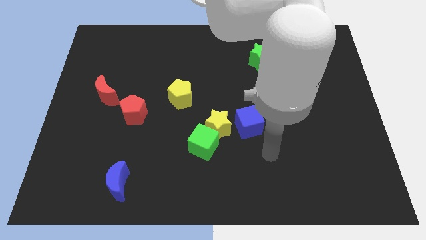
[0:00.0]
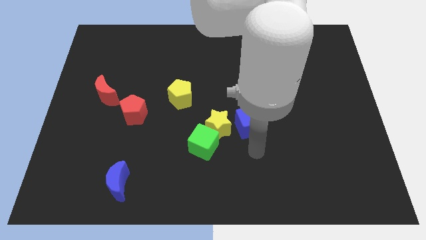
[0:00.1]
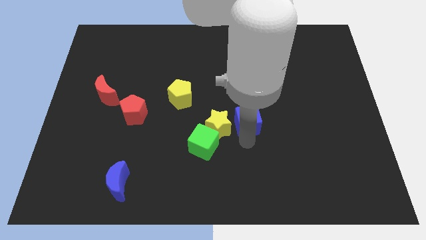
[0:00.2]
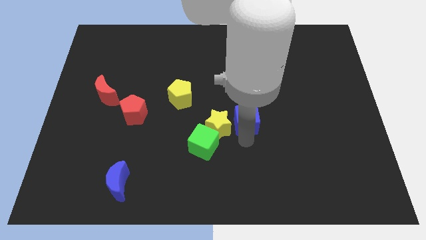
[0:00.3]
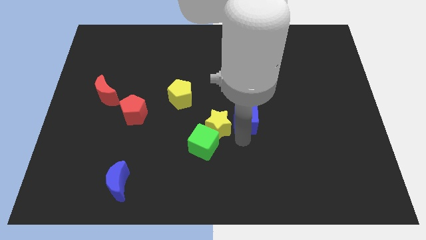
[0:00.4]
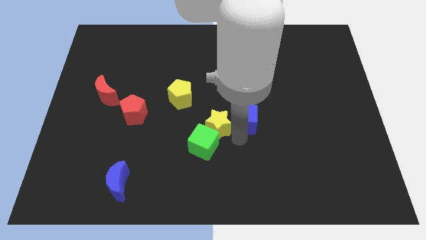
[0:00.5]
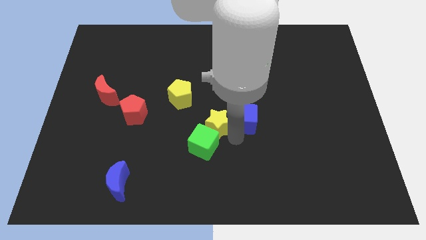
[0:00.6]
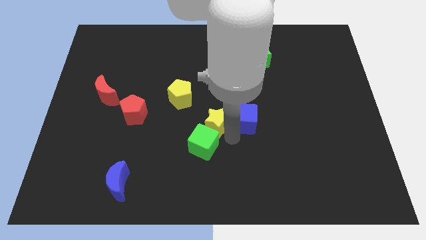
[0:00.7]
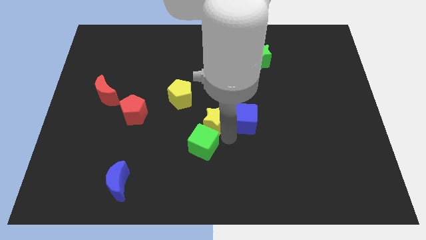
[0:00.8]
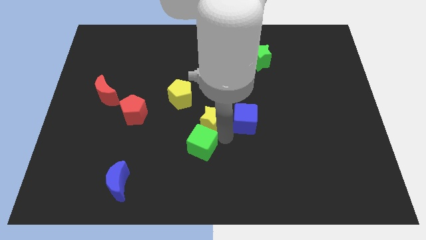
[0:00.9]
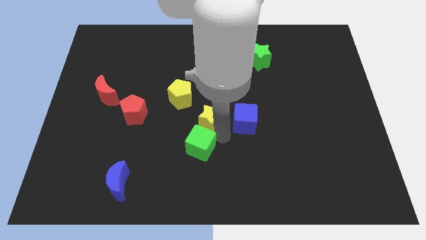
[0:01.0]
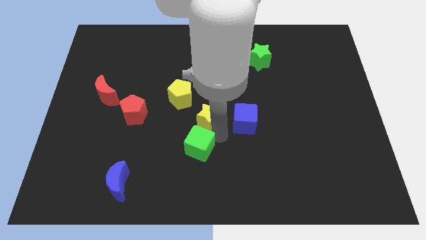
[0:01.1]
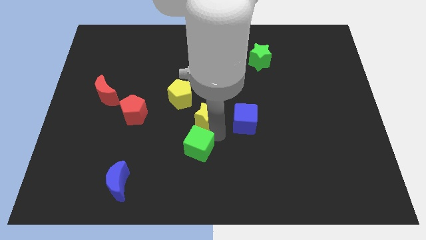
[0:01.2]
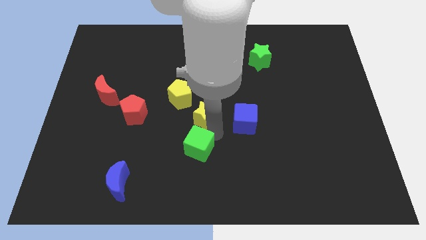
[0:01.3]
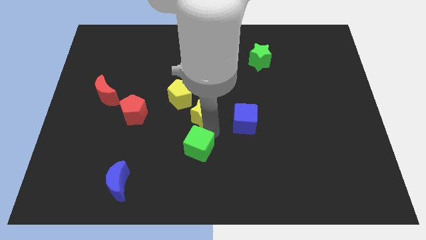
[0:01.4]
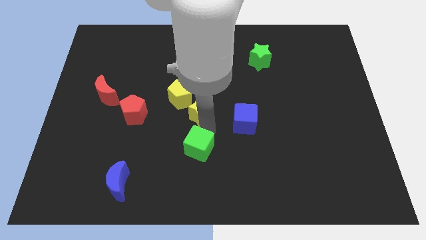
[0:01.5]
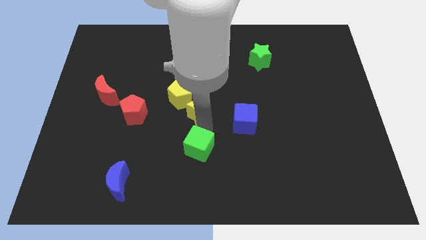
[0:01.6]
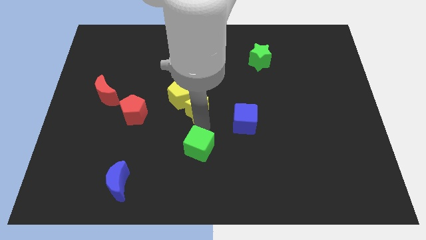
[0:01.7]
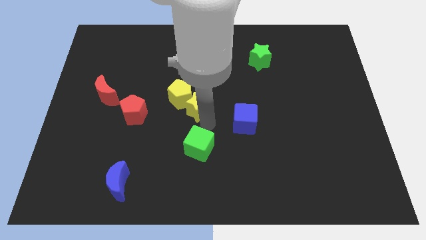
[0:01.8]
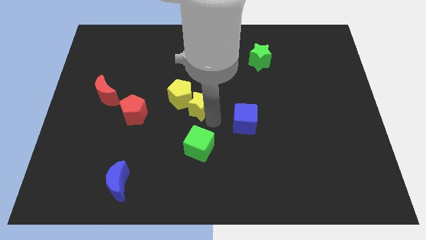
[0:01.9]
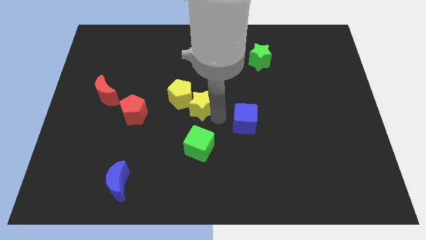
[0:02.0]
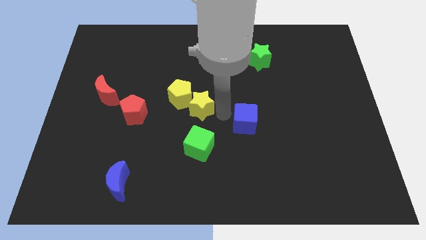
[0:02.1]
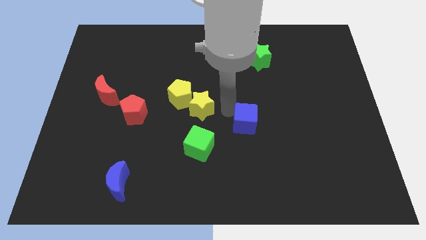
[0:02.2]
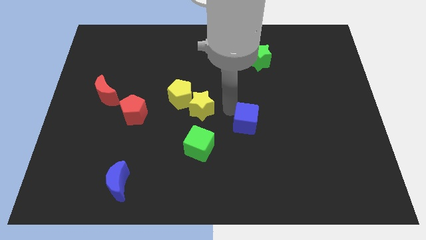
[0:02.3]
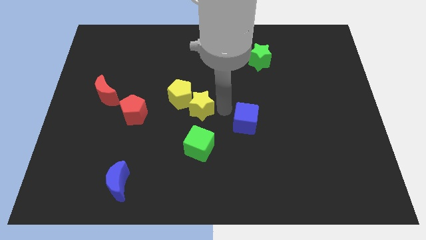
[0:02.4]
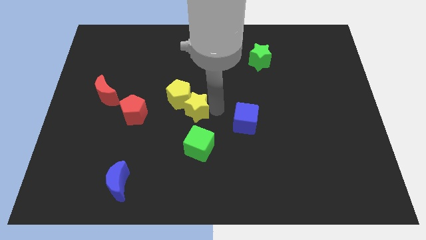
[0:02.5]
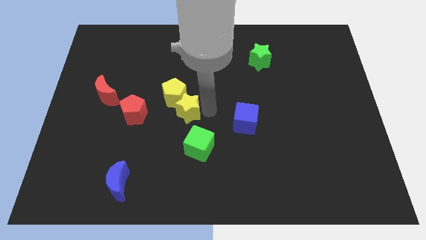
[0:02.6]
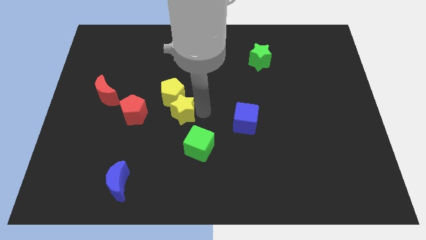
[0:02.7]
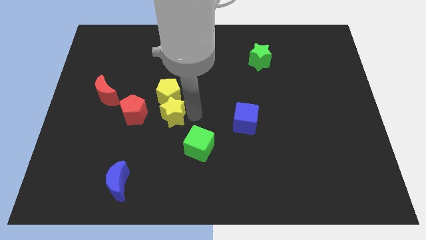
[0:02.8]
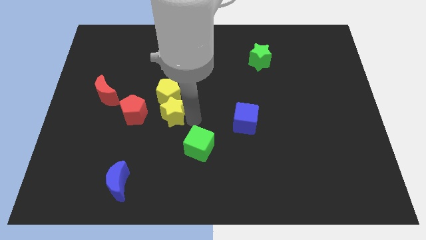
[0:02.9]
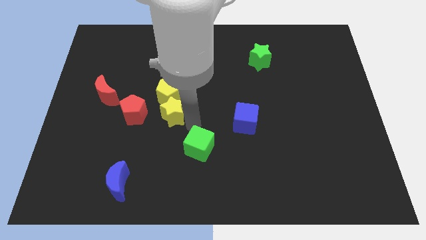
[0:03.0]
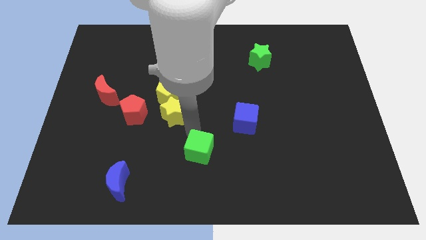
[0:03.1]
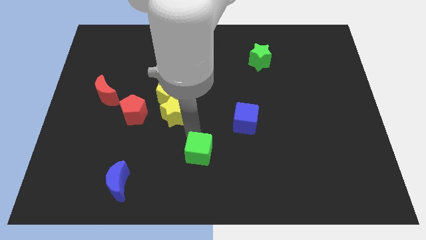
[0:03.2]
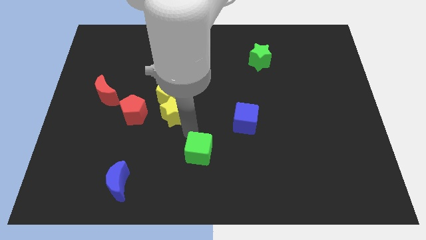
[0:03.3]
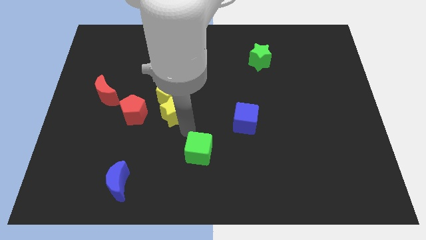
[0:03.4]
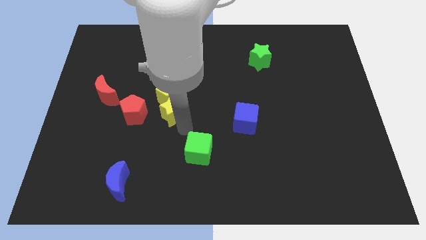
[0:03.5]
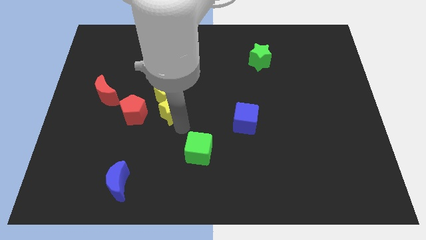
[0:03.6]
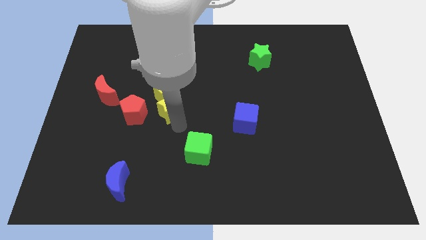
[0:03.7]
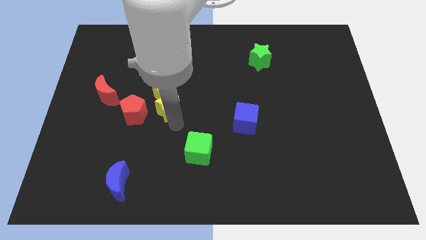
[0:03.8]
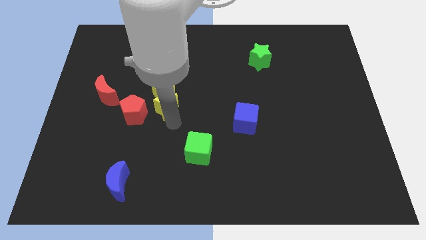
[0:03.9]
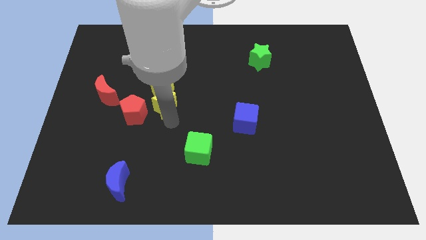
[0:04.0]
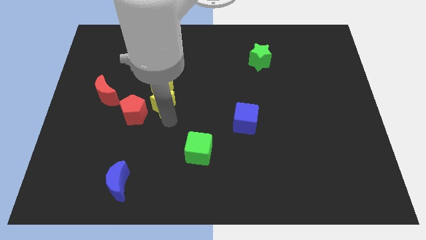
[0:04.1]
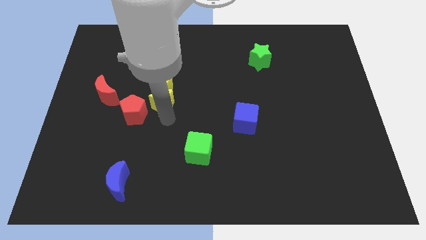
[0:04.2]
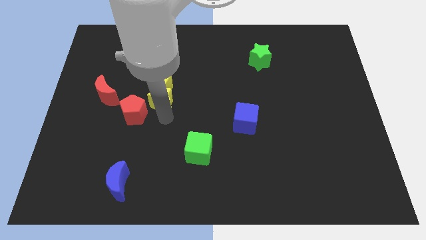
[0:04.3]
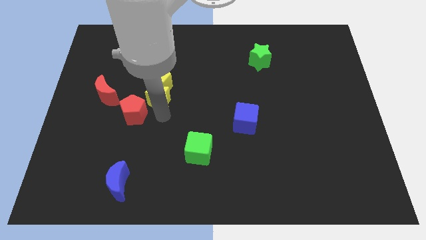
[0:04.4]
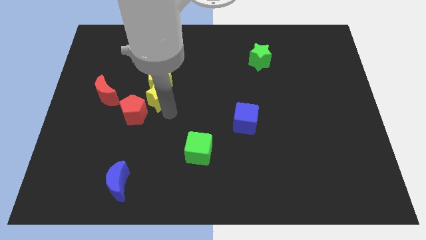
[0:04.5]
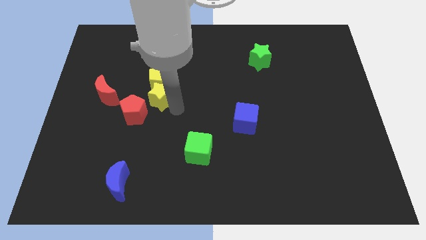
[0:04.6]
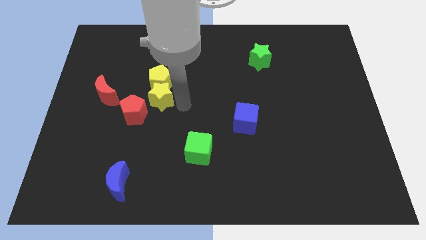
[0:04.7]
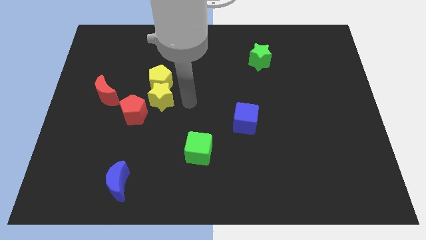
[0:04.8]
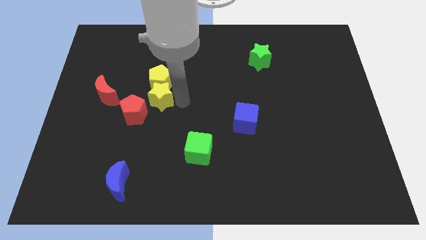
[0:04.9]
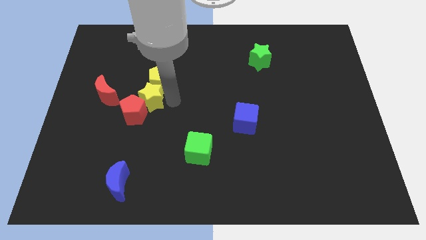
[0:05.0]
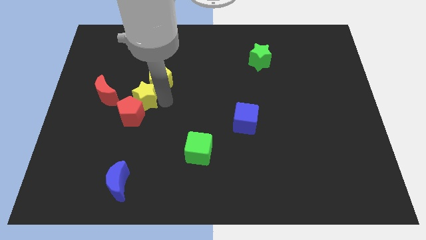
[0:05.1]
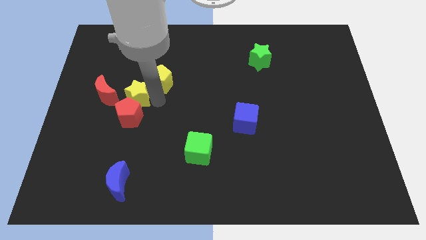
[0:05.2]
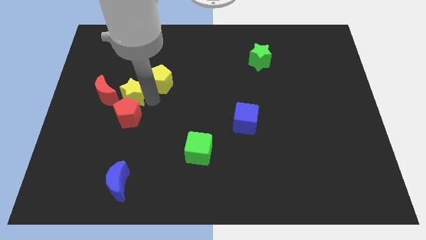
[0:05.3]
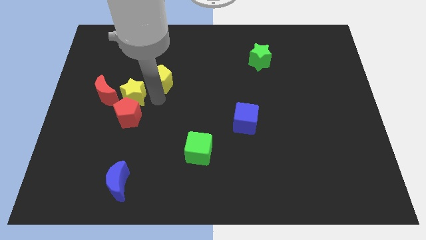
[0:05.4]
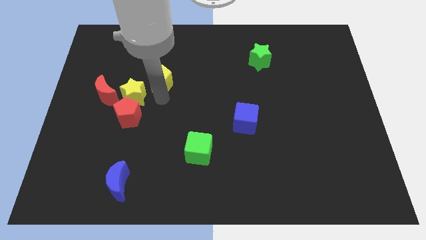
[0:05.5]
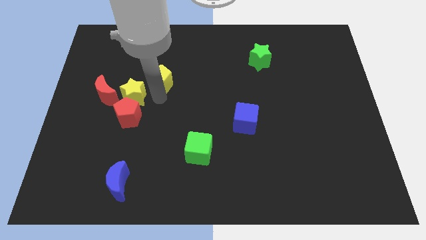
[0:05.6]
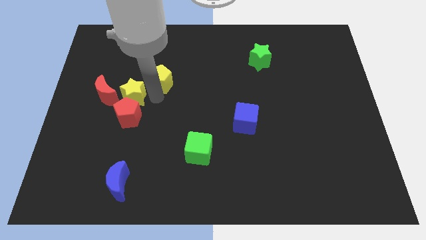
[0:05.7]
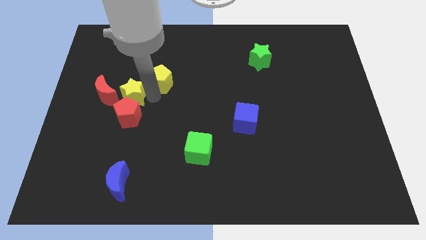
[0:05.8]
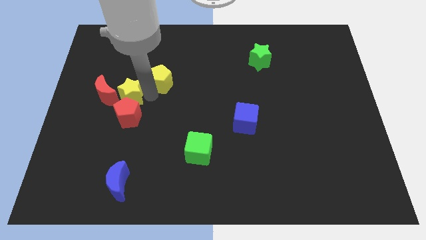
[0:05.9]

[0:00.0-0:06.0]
push the yellow star next to the red moon

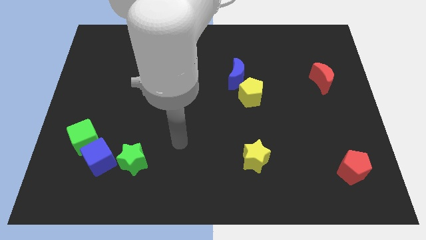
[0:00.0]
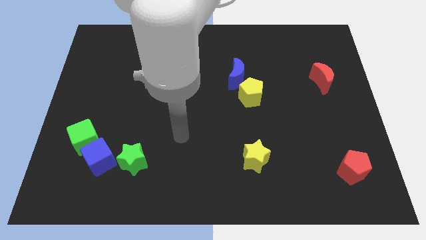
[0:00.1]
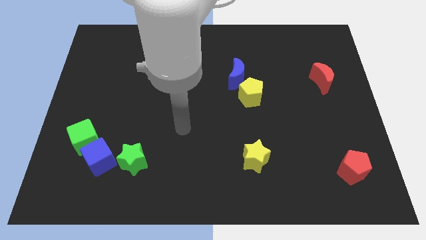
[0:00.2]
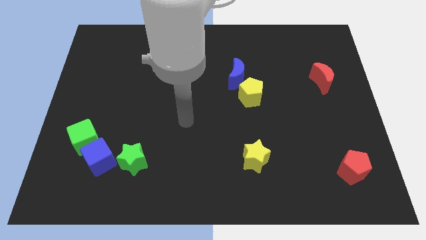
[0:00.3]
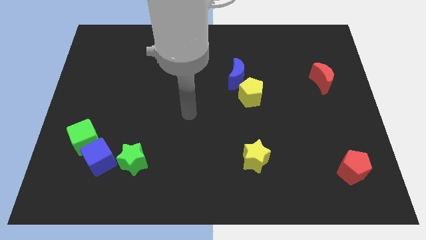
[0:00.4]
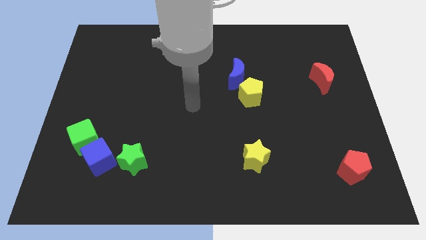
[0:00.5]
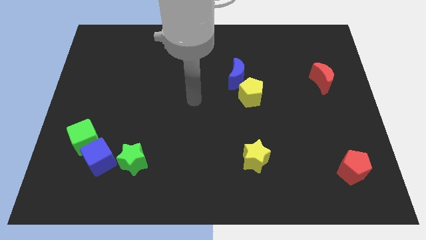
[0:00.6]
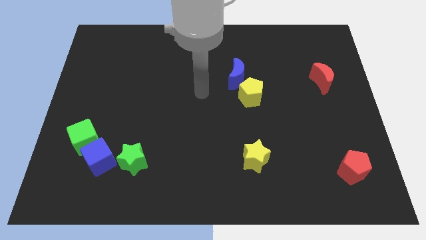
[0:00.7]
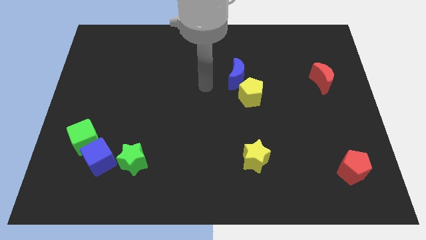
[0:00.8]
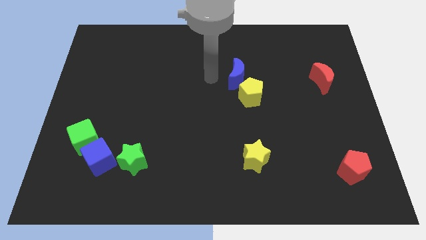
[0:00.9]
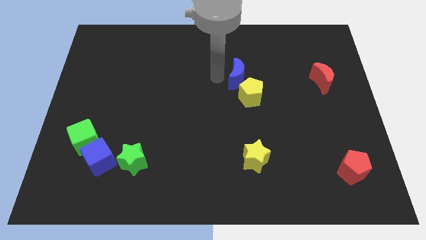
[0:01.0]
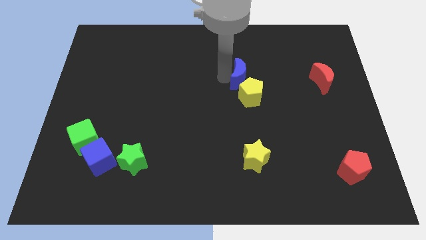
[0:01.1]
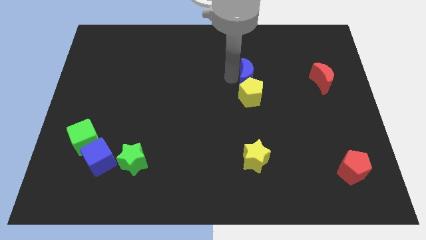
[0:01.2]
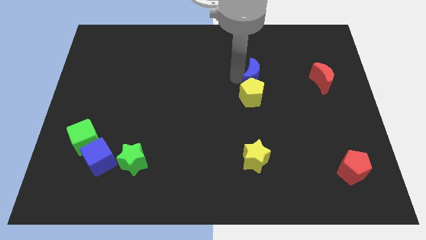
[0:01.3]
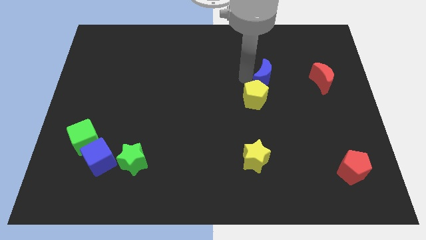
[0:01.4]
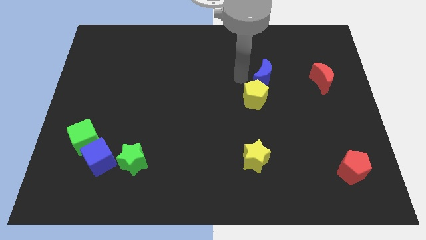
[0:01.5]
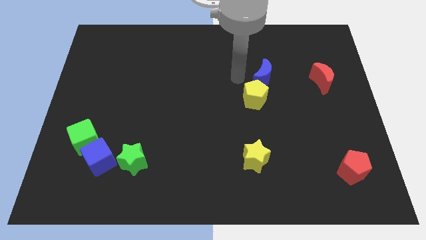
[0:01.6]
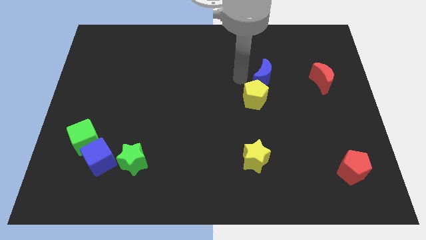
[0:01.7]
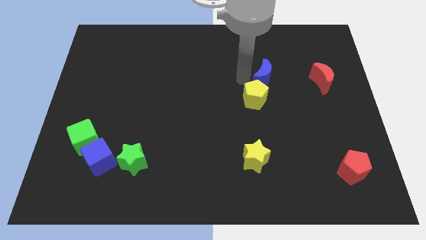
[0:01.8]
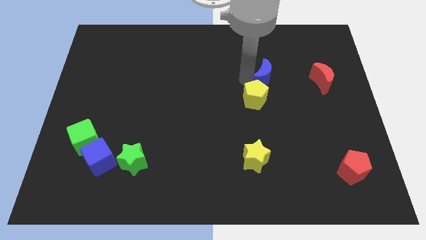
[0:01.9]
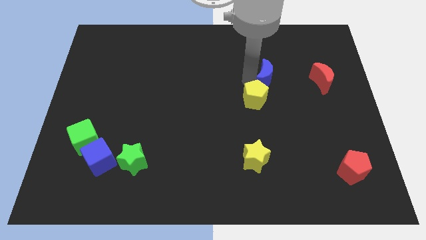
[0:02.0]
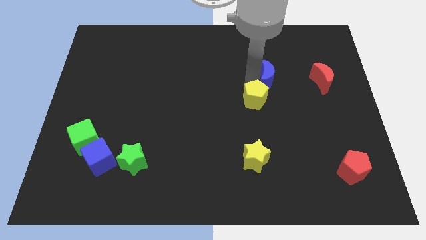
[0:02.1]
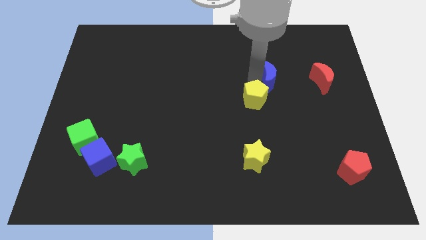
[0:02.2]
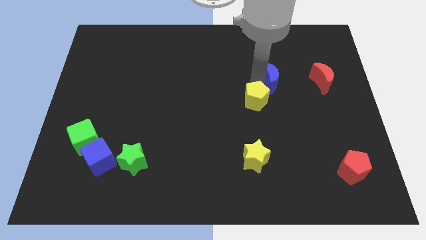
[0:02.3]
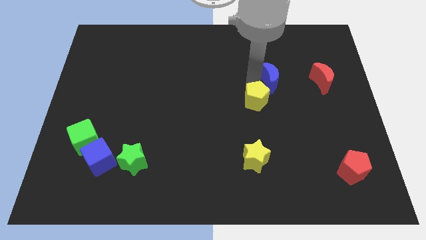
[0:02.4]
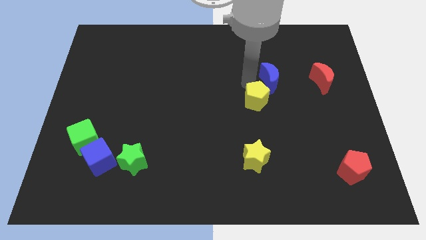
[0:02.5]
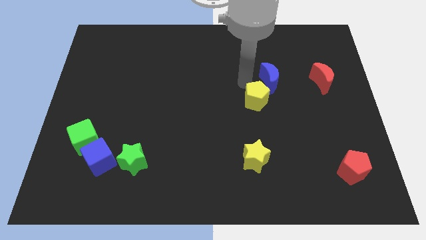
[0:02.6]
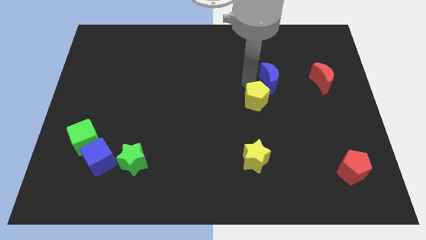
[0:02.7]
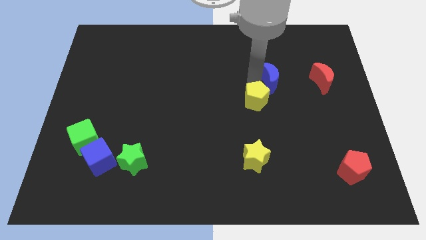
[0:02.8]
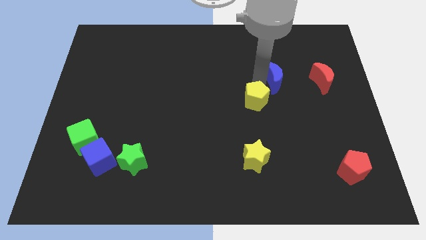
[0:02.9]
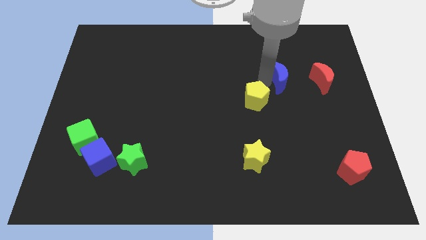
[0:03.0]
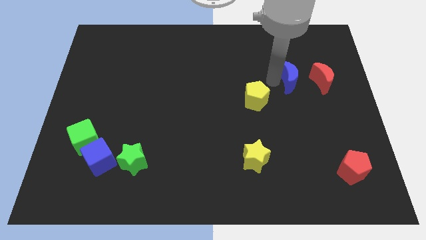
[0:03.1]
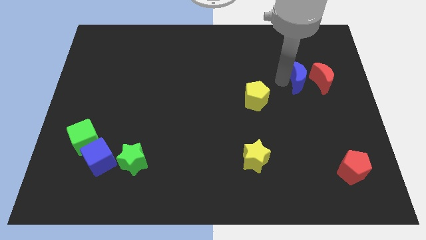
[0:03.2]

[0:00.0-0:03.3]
push the blue moon next to the red moon
